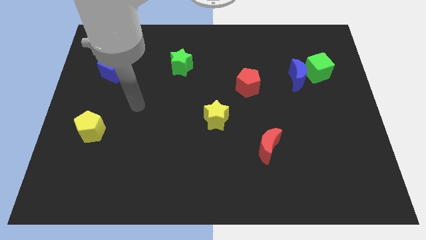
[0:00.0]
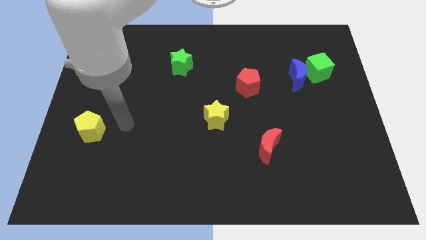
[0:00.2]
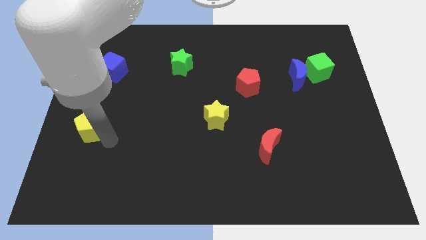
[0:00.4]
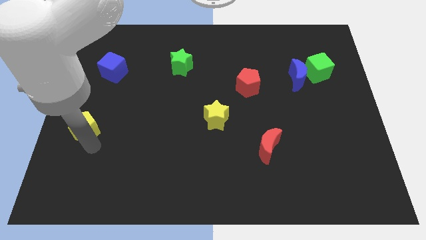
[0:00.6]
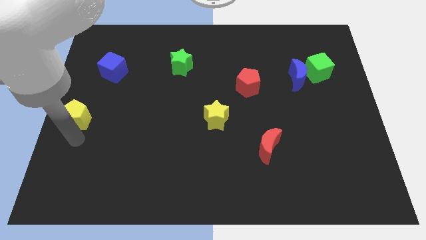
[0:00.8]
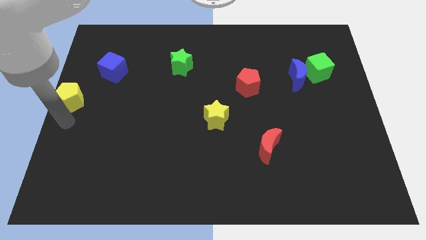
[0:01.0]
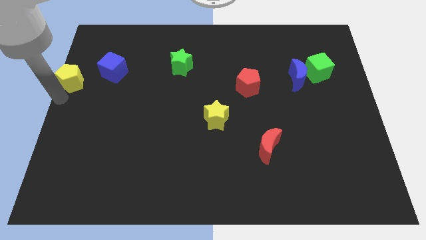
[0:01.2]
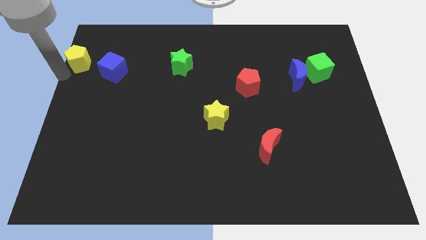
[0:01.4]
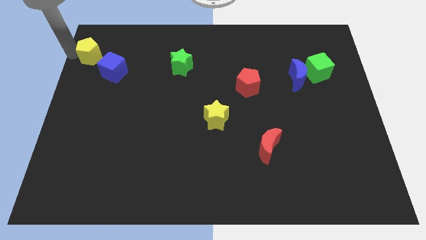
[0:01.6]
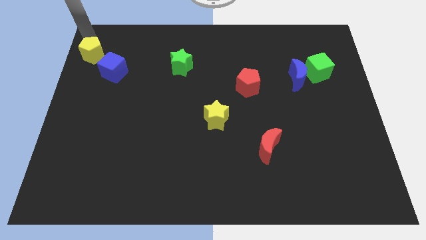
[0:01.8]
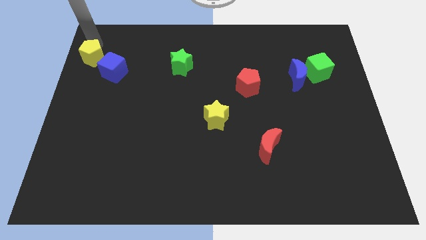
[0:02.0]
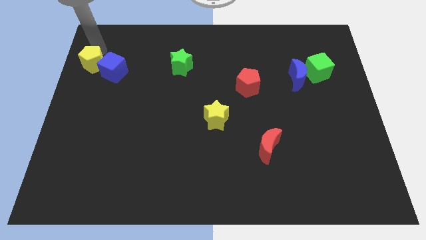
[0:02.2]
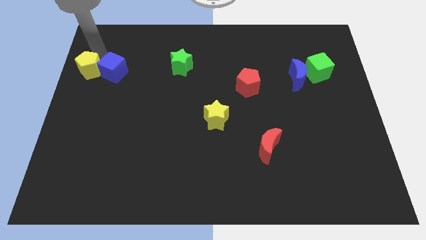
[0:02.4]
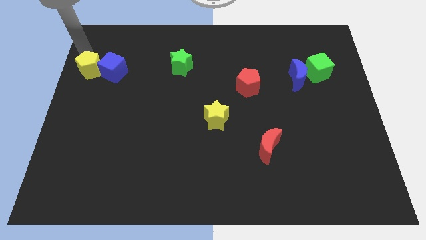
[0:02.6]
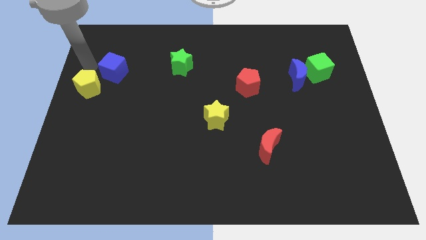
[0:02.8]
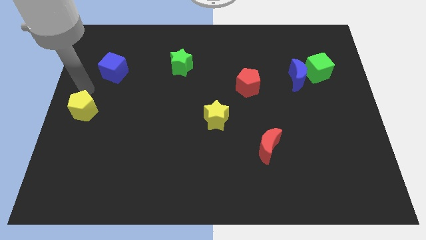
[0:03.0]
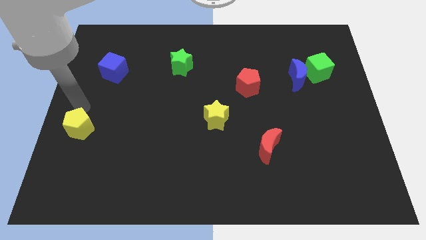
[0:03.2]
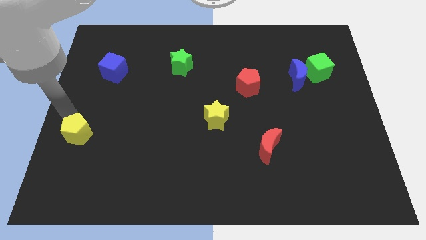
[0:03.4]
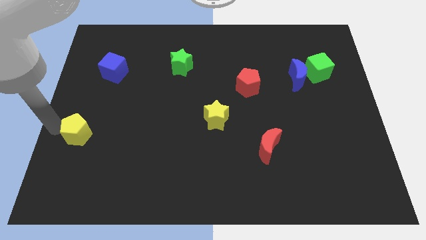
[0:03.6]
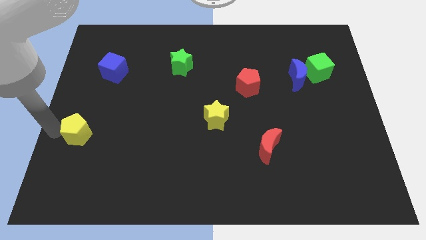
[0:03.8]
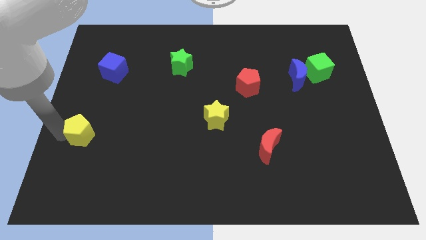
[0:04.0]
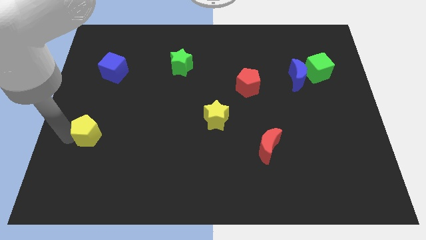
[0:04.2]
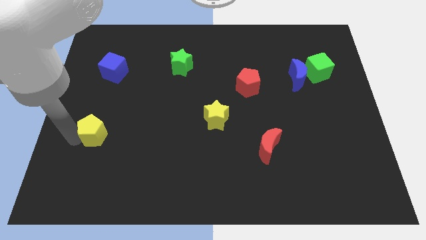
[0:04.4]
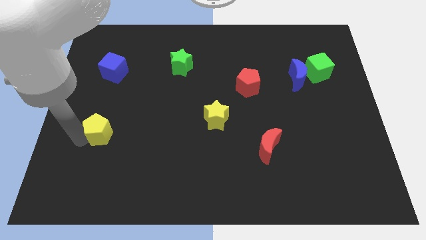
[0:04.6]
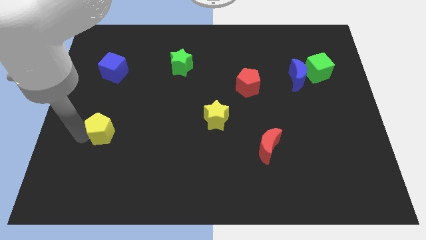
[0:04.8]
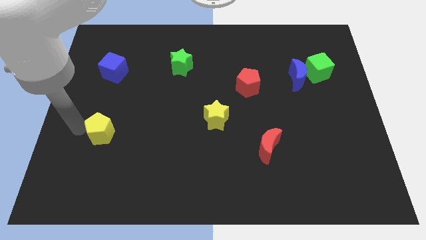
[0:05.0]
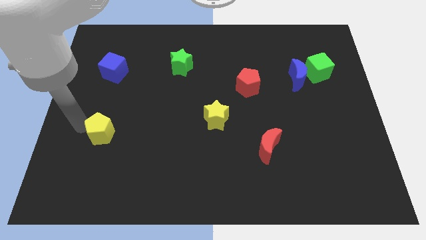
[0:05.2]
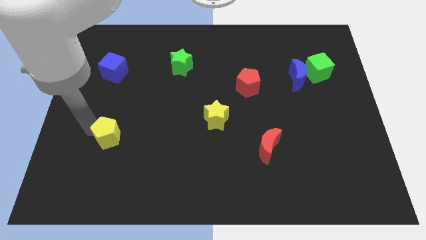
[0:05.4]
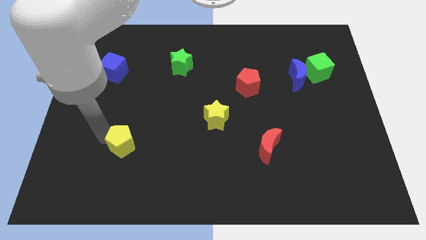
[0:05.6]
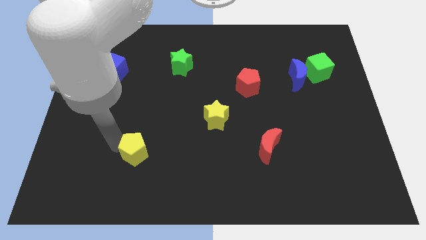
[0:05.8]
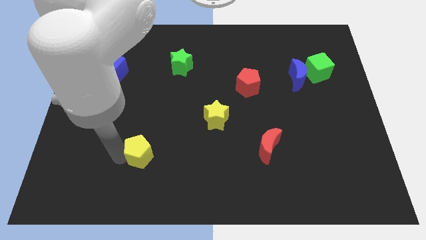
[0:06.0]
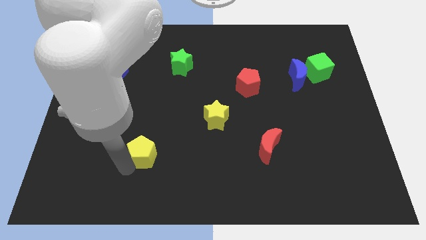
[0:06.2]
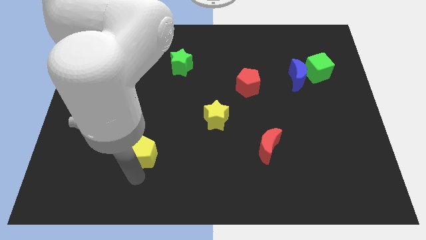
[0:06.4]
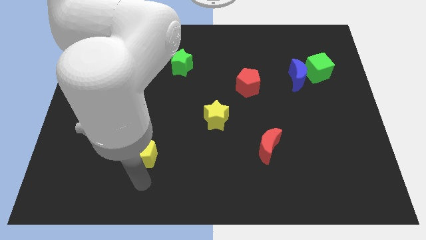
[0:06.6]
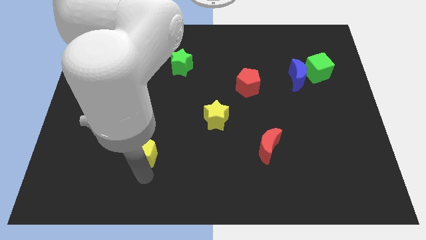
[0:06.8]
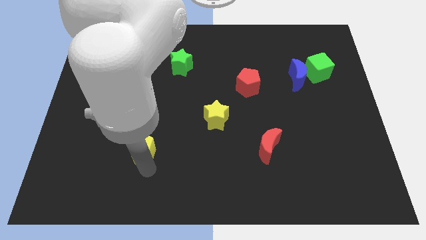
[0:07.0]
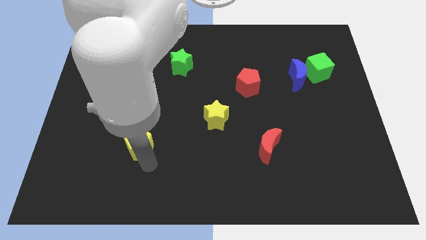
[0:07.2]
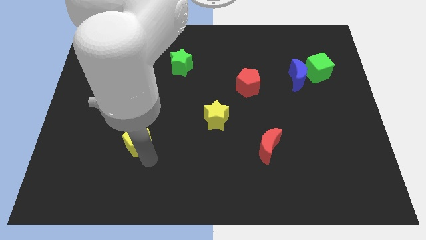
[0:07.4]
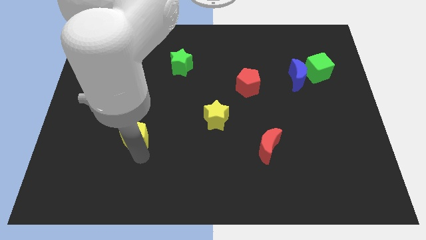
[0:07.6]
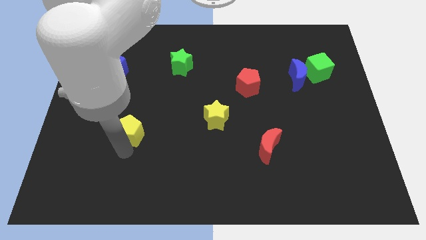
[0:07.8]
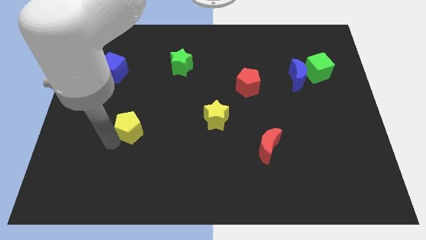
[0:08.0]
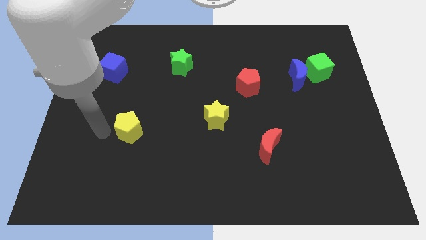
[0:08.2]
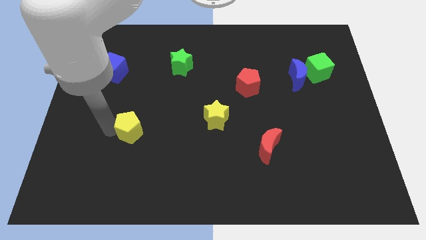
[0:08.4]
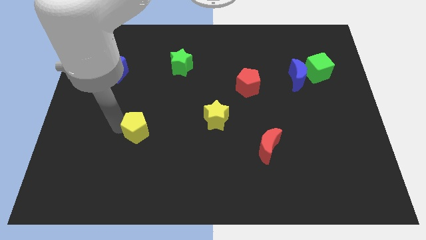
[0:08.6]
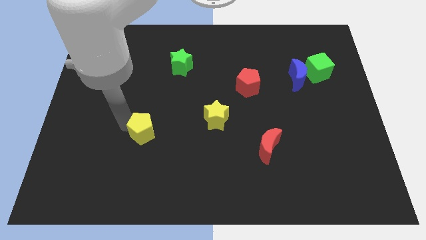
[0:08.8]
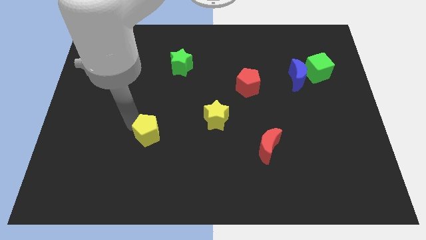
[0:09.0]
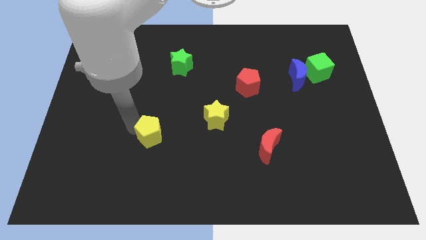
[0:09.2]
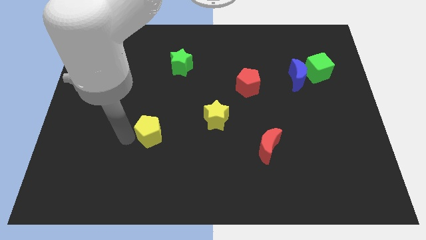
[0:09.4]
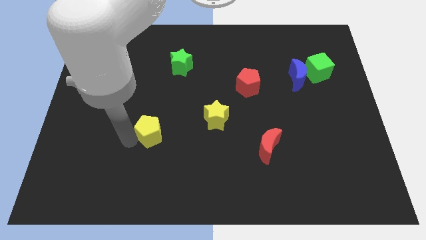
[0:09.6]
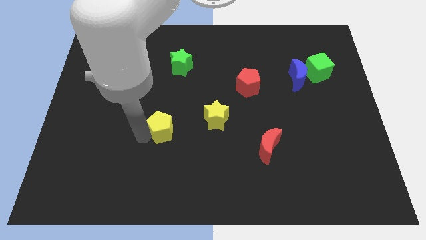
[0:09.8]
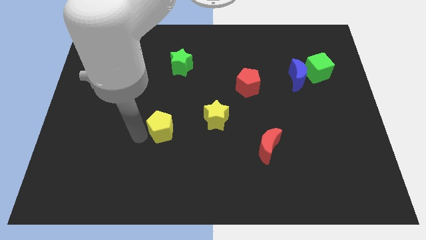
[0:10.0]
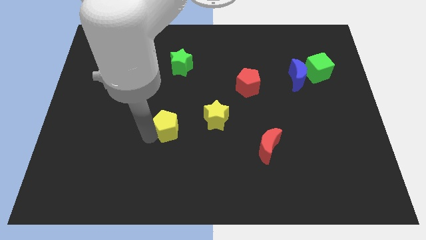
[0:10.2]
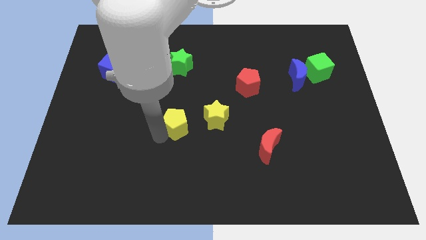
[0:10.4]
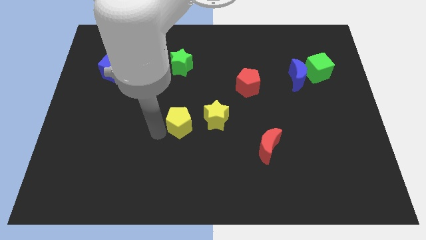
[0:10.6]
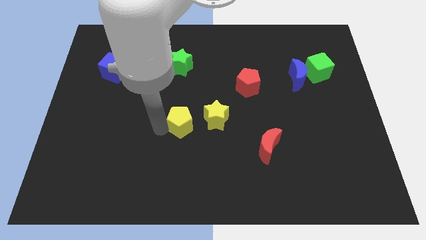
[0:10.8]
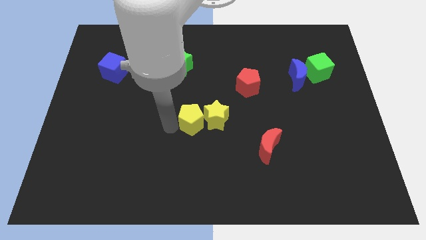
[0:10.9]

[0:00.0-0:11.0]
push the yellow pentagon to the yellow star

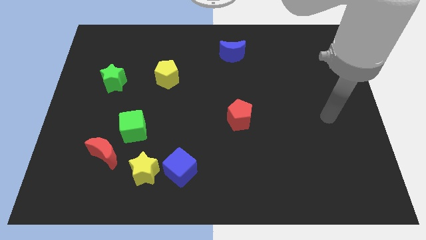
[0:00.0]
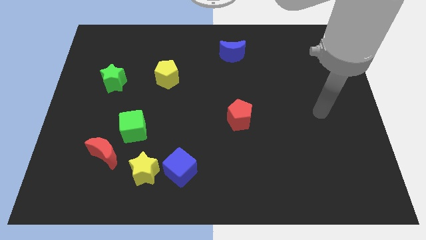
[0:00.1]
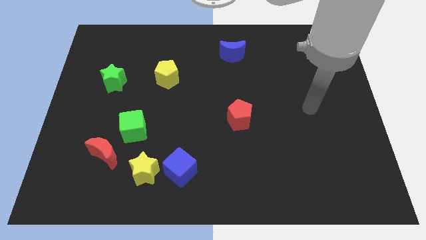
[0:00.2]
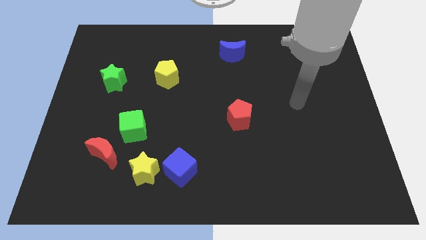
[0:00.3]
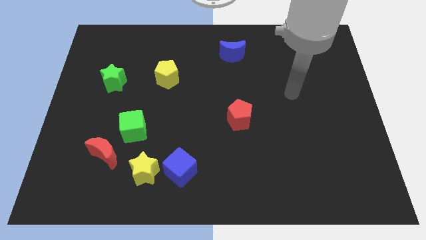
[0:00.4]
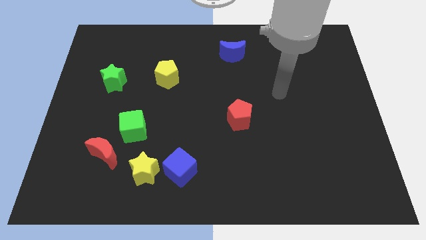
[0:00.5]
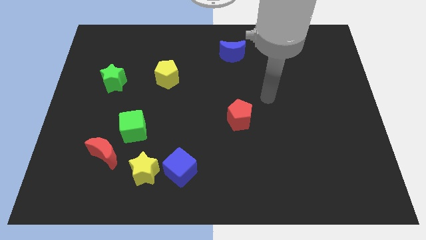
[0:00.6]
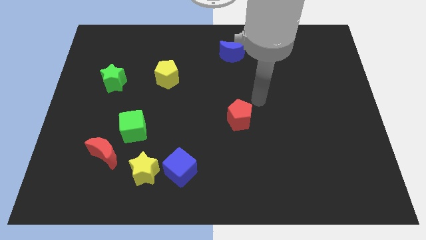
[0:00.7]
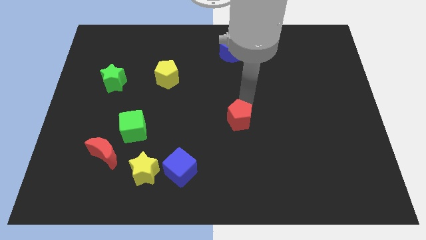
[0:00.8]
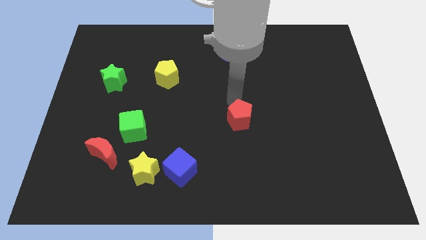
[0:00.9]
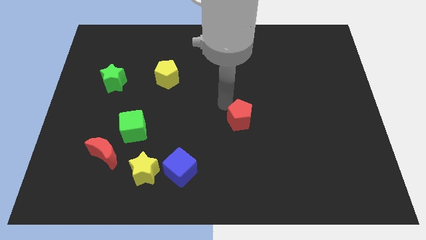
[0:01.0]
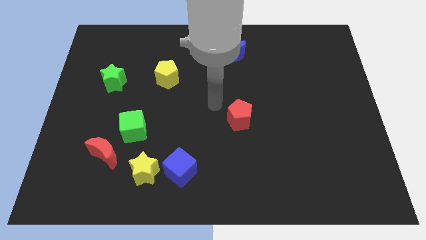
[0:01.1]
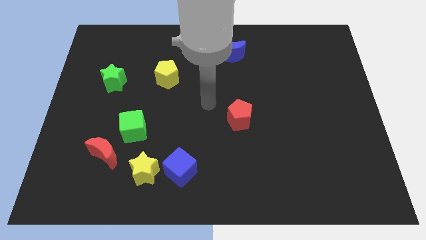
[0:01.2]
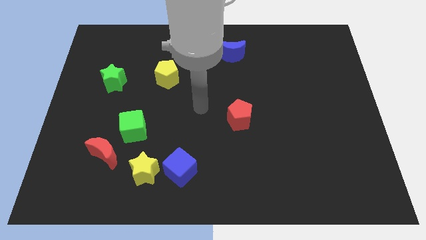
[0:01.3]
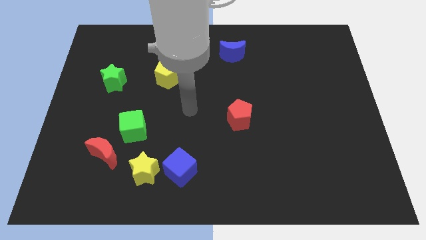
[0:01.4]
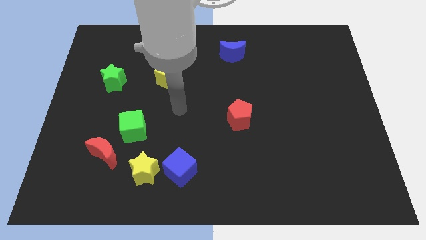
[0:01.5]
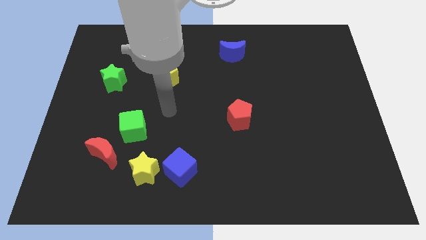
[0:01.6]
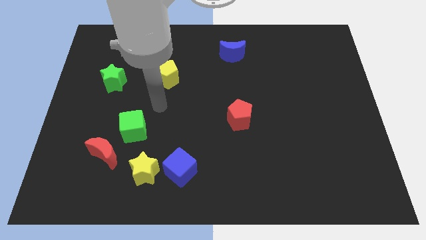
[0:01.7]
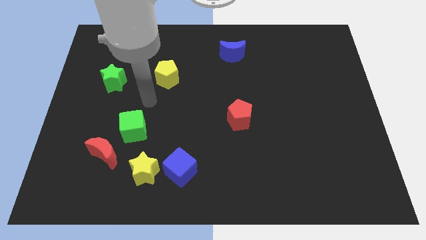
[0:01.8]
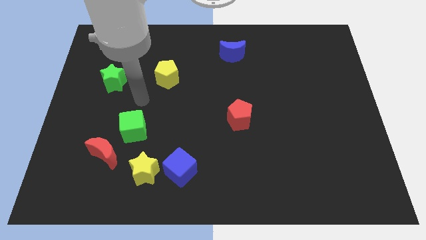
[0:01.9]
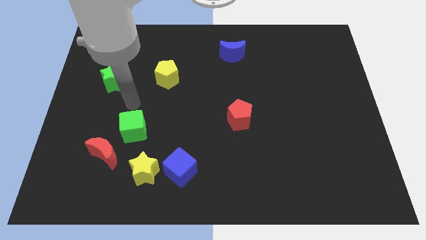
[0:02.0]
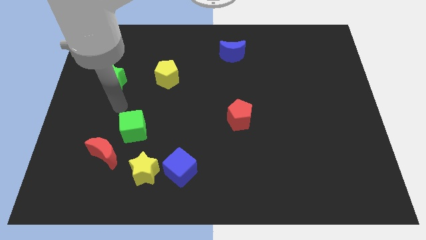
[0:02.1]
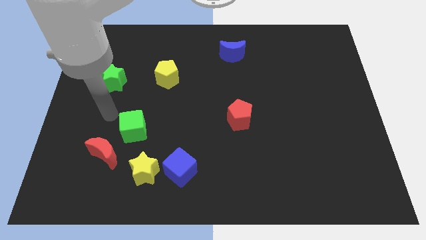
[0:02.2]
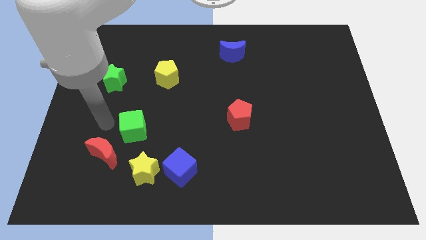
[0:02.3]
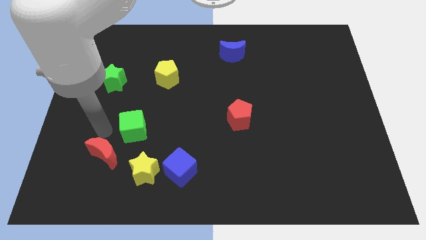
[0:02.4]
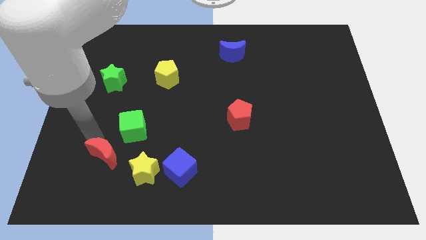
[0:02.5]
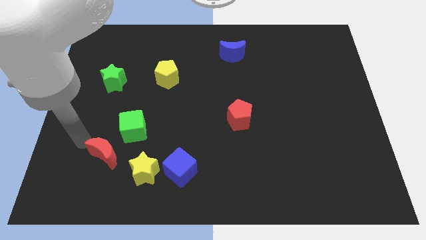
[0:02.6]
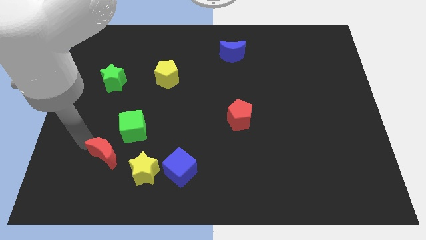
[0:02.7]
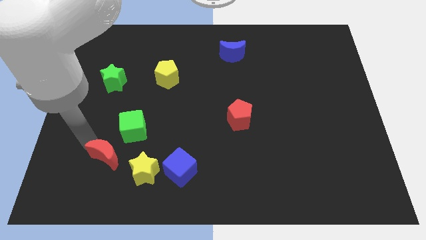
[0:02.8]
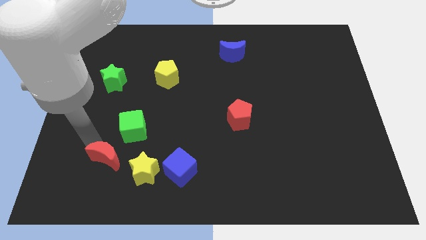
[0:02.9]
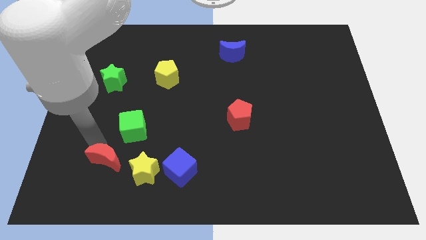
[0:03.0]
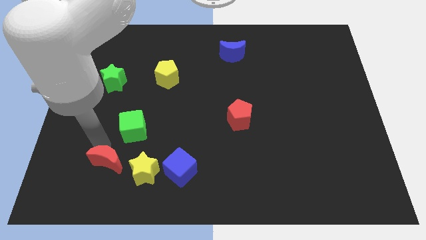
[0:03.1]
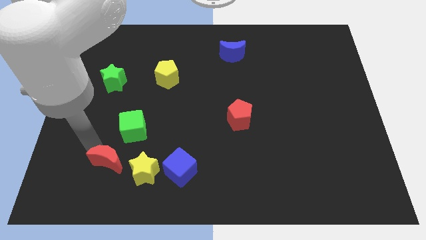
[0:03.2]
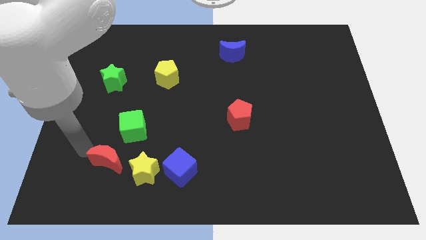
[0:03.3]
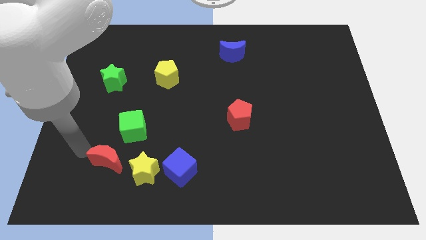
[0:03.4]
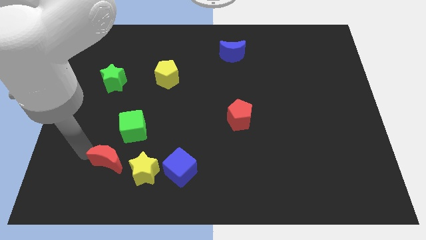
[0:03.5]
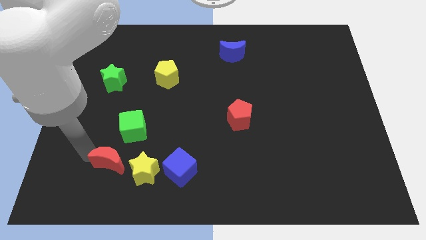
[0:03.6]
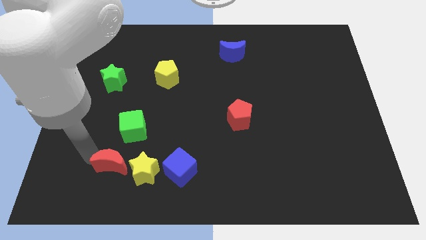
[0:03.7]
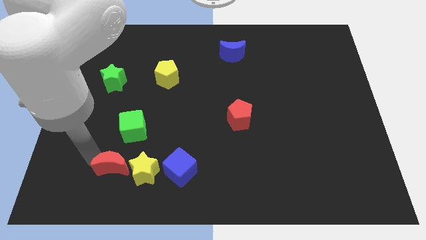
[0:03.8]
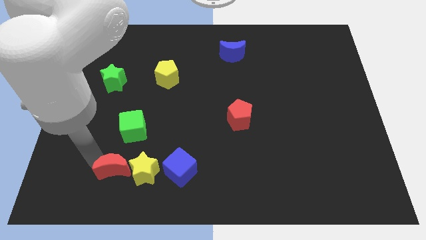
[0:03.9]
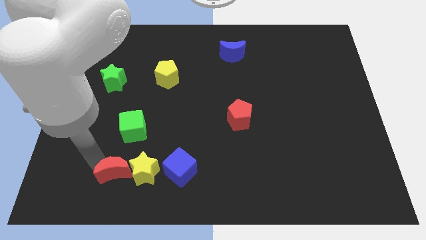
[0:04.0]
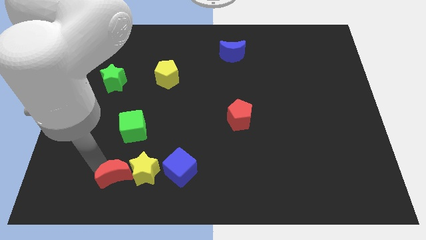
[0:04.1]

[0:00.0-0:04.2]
put the red moon towards the yellow star
